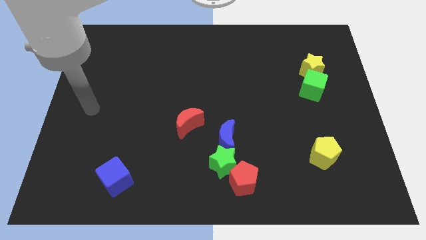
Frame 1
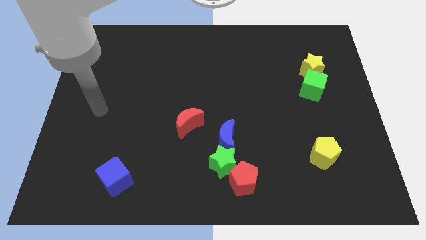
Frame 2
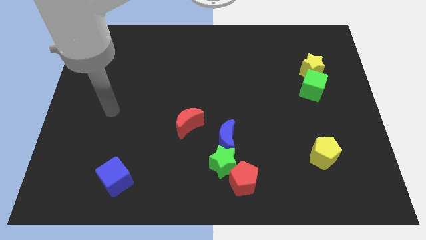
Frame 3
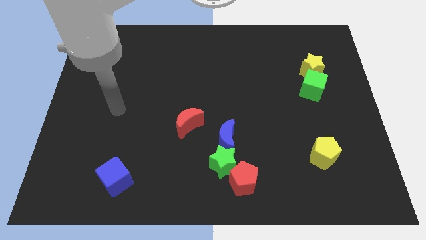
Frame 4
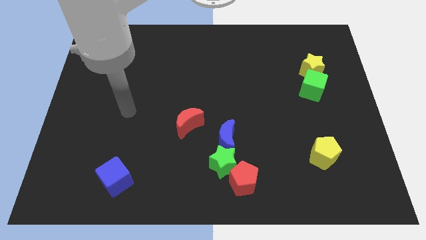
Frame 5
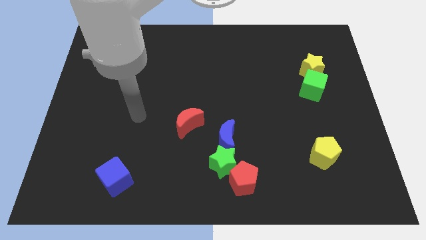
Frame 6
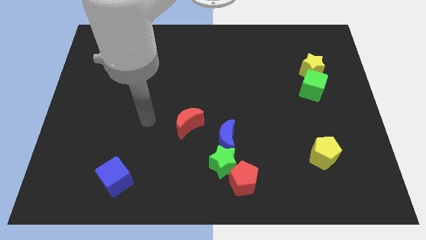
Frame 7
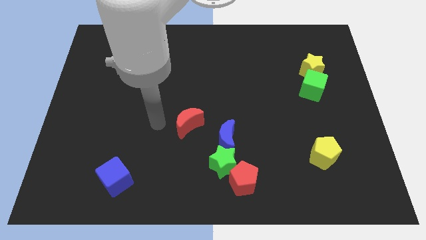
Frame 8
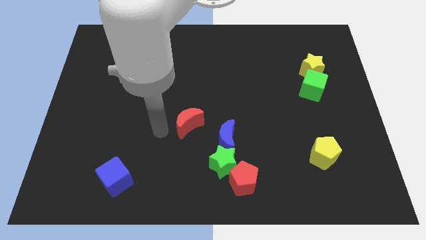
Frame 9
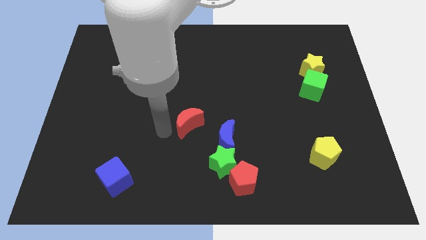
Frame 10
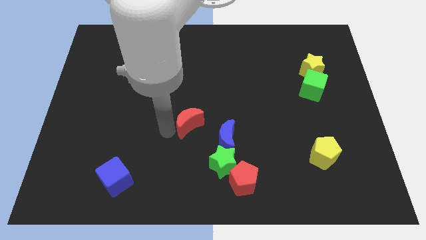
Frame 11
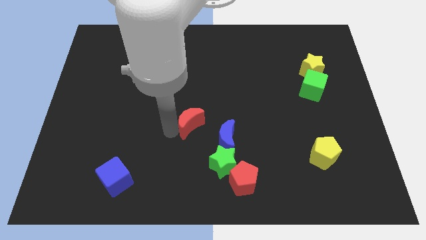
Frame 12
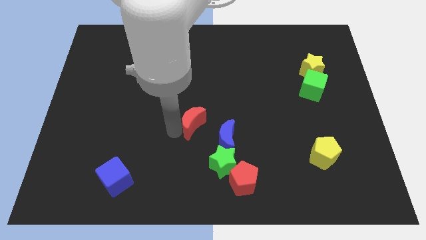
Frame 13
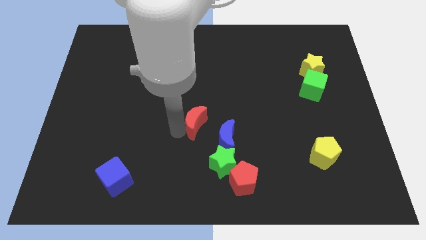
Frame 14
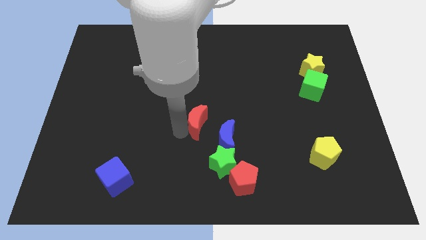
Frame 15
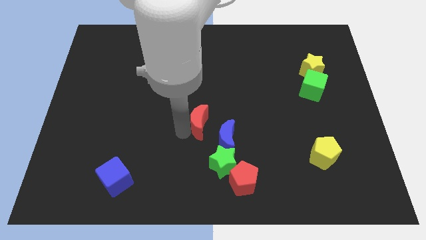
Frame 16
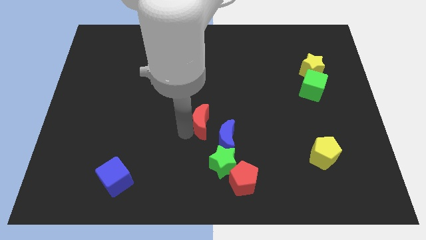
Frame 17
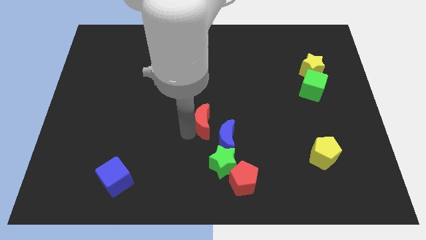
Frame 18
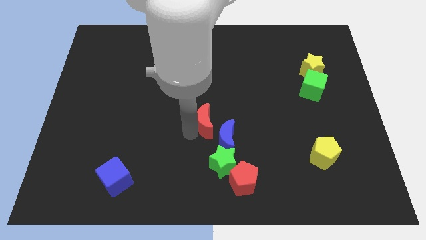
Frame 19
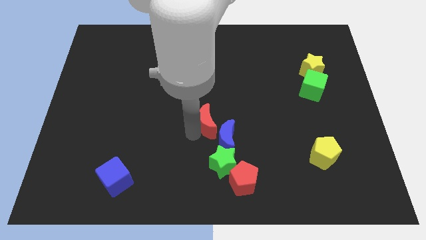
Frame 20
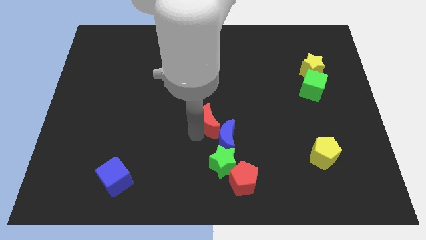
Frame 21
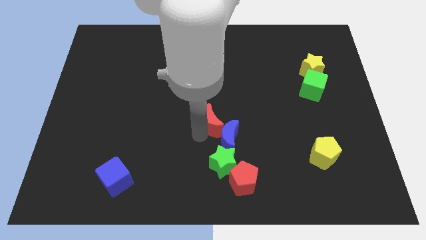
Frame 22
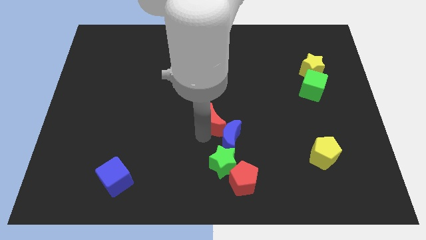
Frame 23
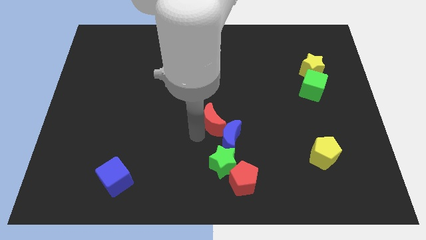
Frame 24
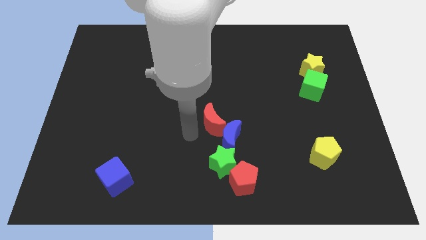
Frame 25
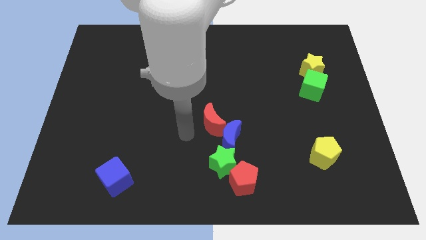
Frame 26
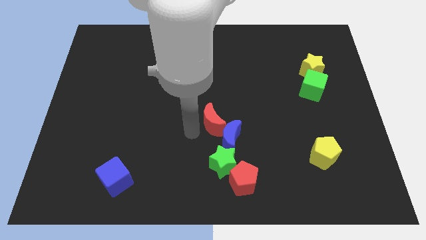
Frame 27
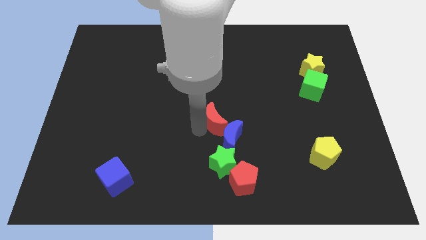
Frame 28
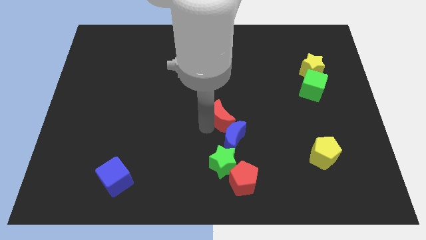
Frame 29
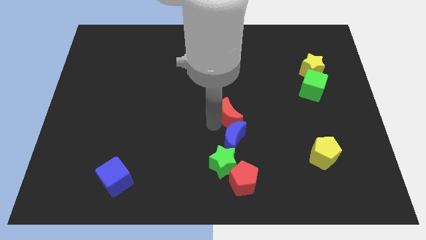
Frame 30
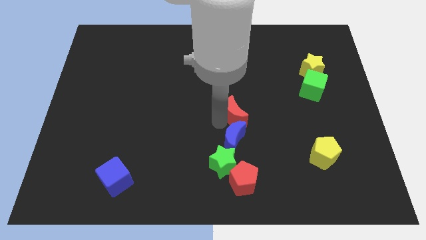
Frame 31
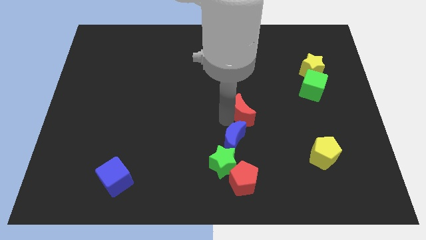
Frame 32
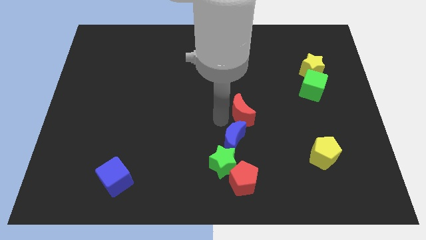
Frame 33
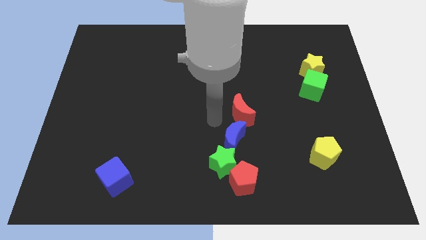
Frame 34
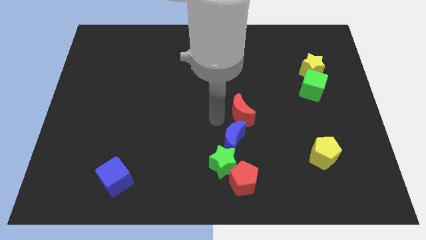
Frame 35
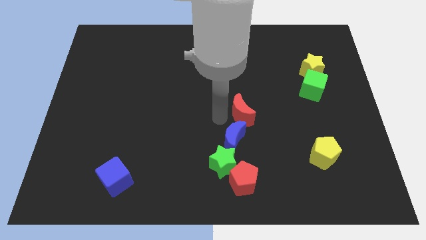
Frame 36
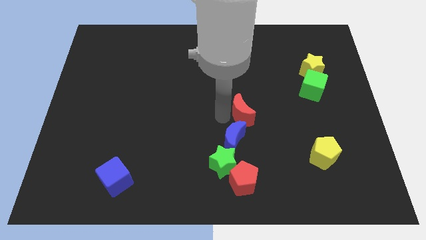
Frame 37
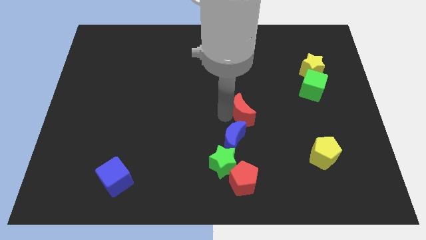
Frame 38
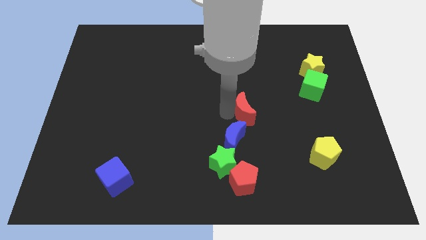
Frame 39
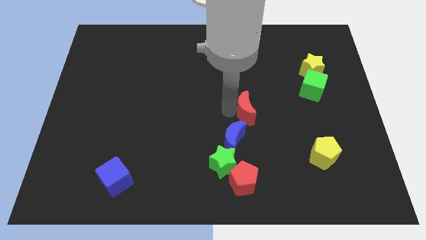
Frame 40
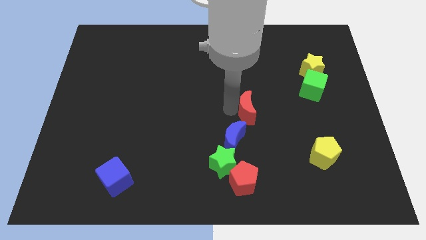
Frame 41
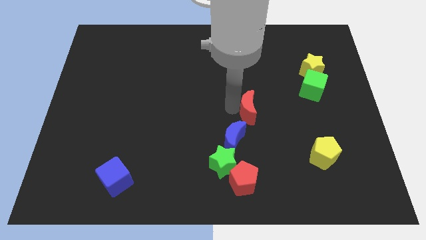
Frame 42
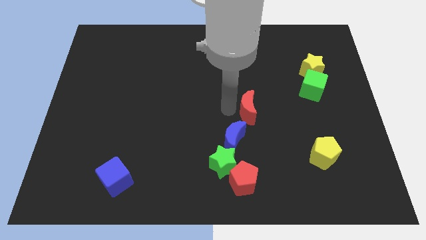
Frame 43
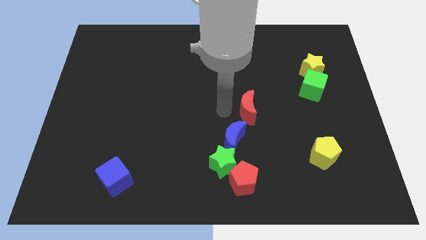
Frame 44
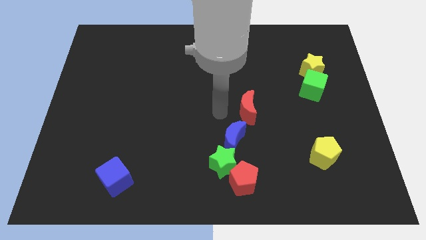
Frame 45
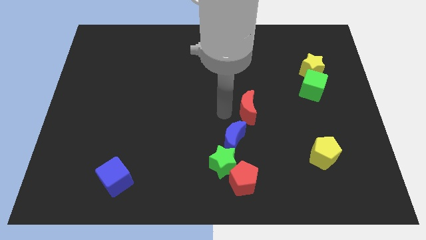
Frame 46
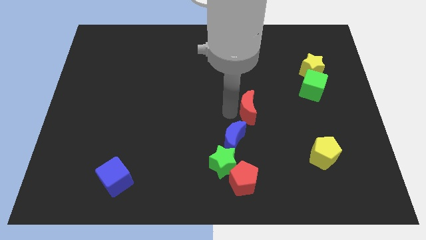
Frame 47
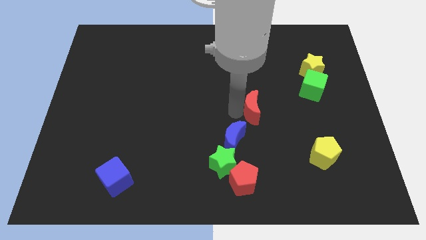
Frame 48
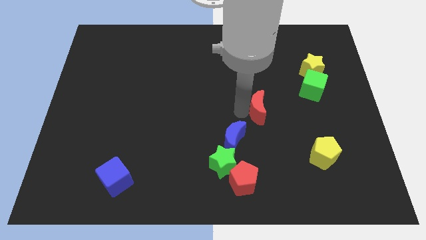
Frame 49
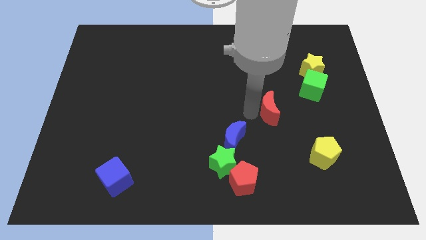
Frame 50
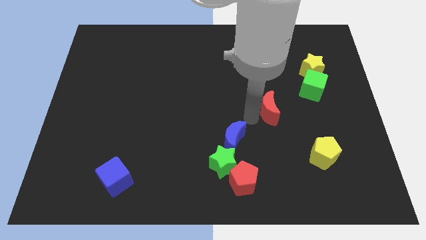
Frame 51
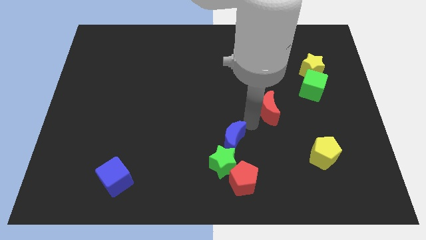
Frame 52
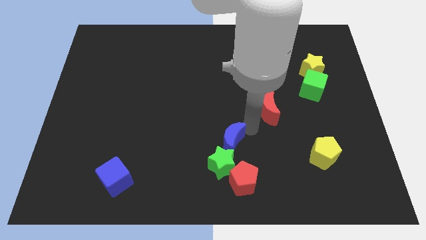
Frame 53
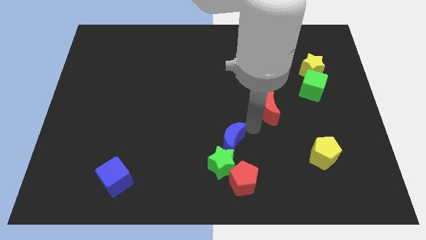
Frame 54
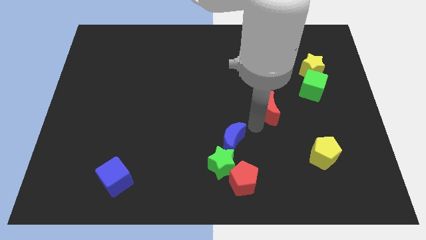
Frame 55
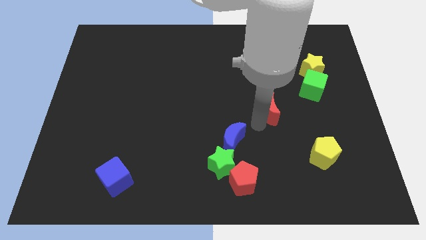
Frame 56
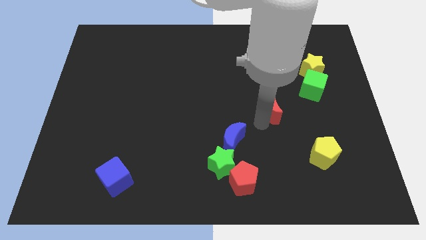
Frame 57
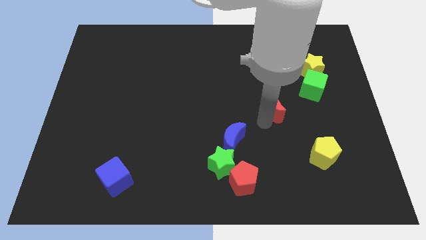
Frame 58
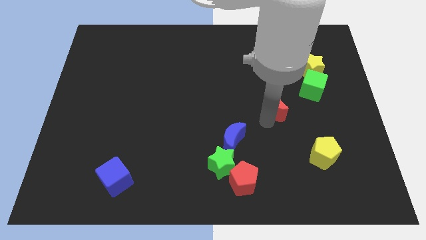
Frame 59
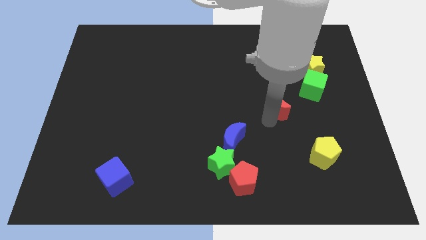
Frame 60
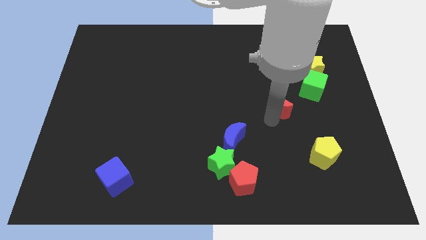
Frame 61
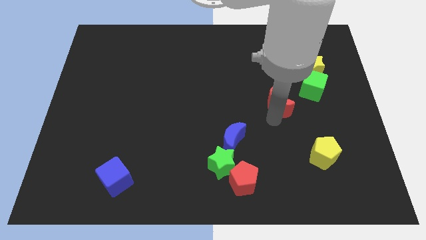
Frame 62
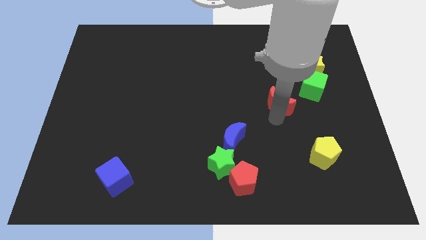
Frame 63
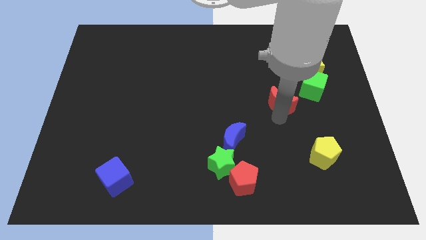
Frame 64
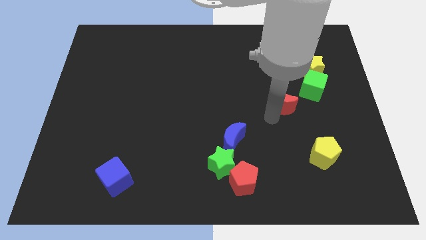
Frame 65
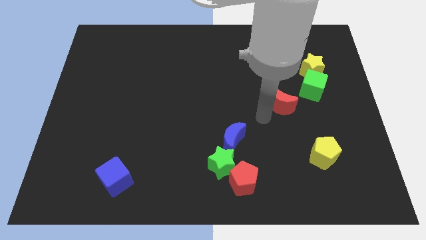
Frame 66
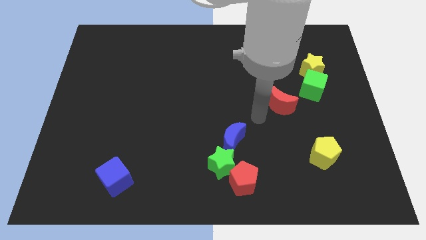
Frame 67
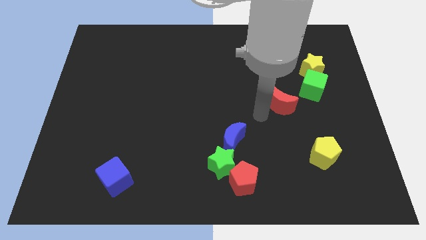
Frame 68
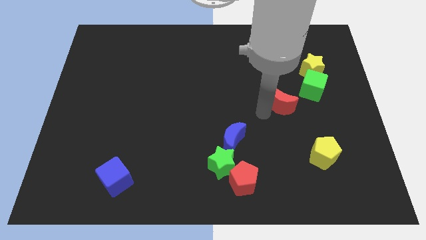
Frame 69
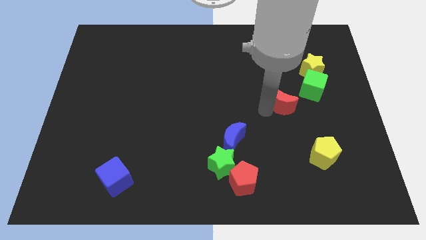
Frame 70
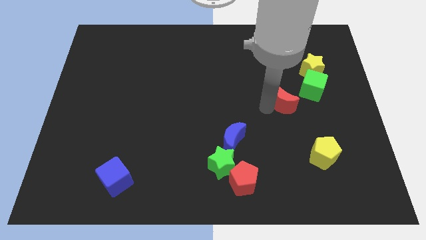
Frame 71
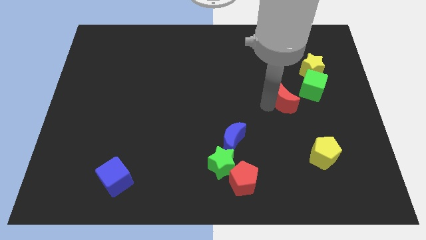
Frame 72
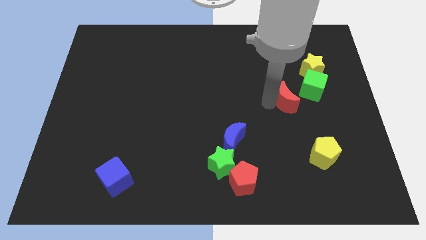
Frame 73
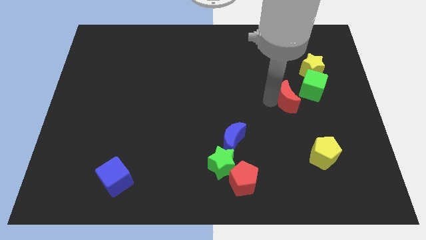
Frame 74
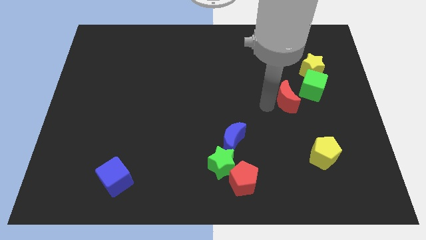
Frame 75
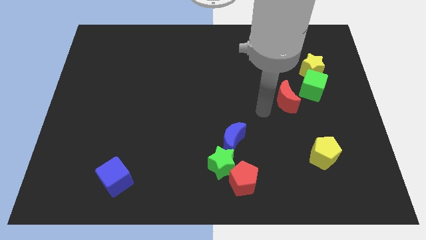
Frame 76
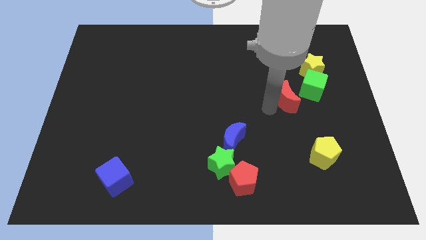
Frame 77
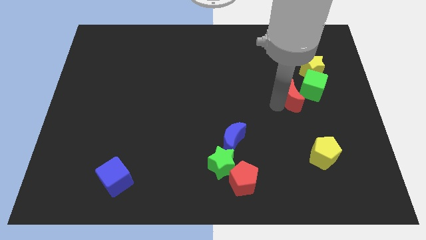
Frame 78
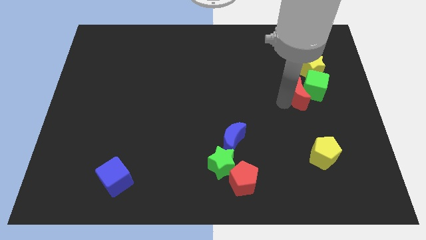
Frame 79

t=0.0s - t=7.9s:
push the red moon next to the green cube
